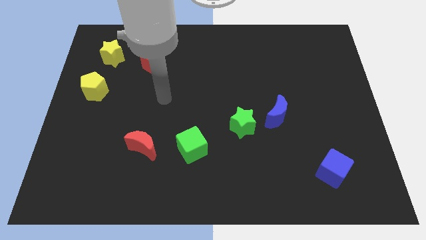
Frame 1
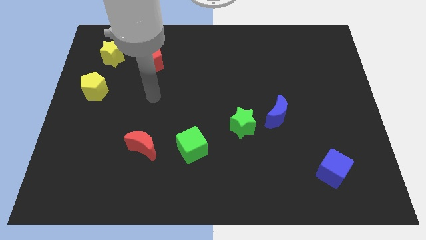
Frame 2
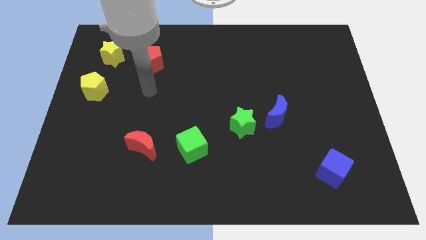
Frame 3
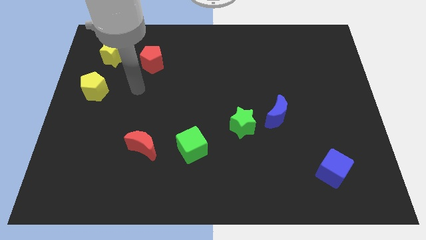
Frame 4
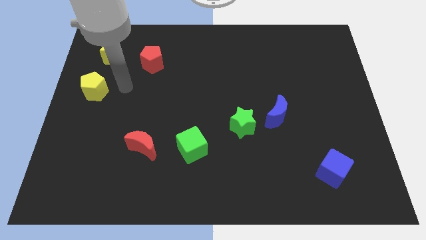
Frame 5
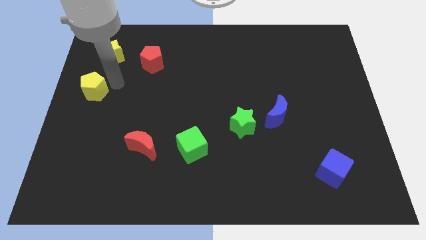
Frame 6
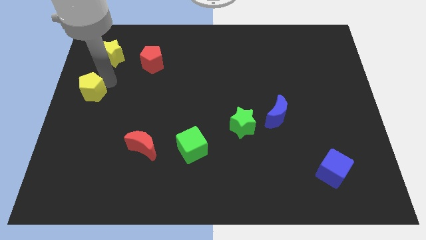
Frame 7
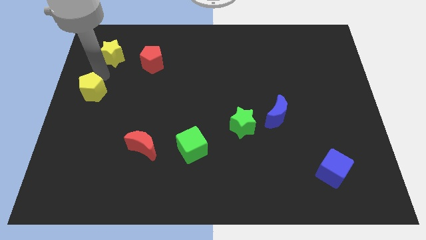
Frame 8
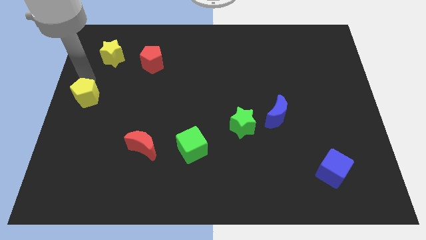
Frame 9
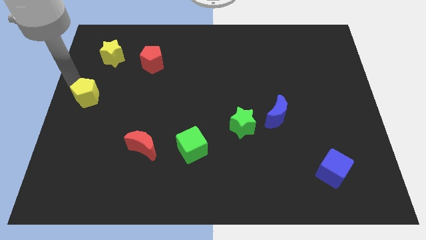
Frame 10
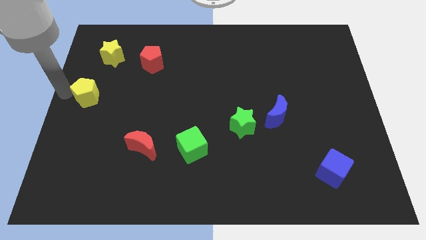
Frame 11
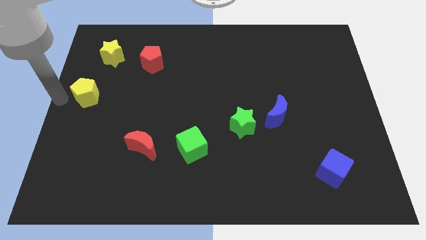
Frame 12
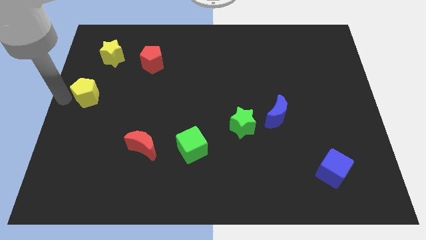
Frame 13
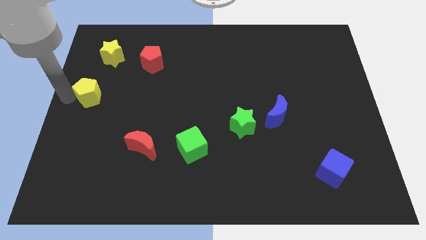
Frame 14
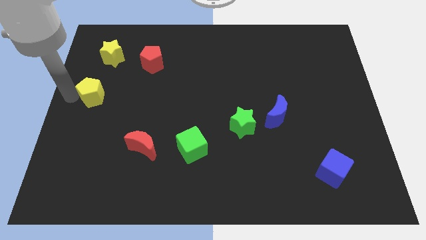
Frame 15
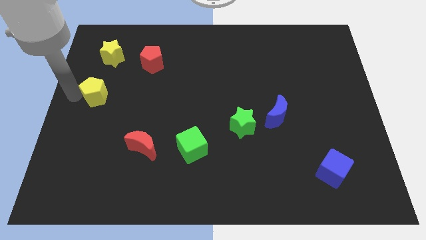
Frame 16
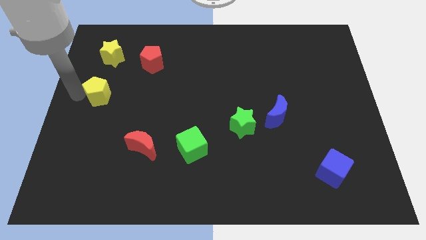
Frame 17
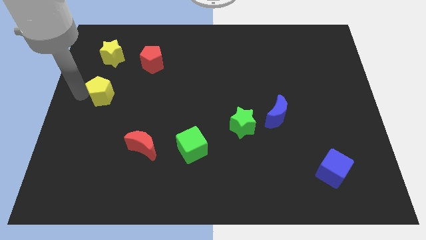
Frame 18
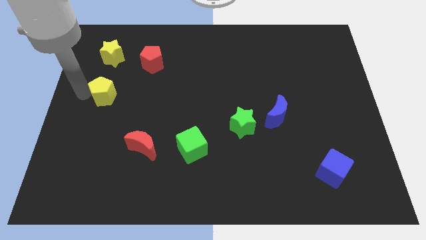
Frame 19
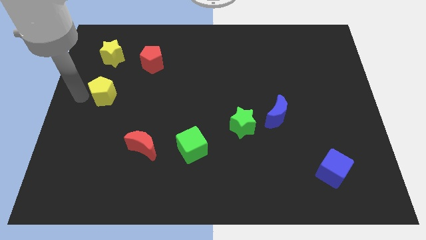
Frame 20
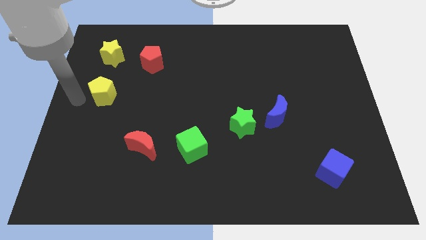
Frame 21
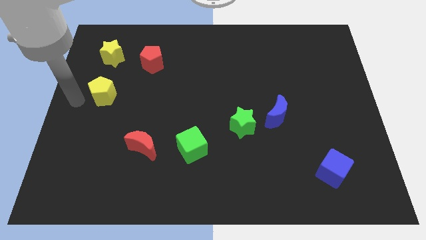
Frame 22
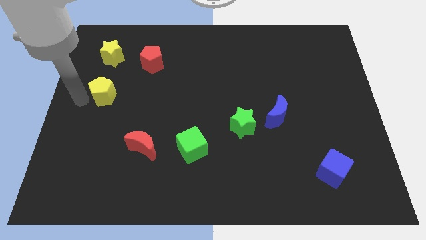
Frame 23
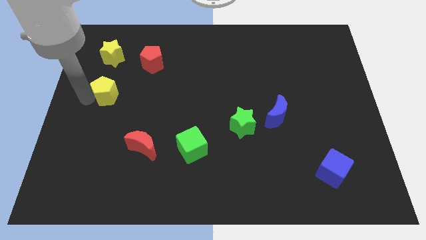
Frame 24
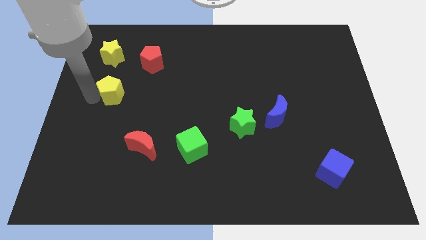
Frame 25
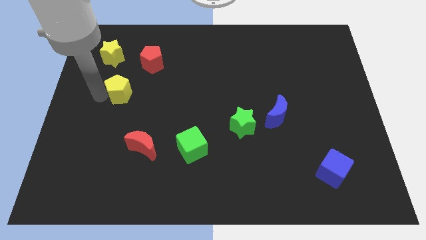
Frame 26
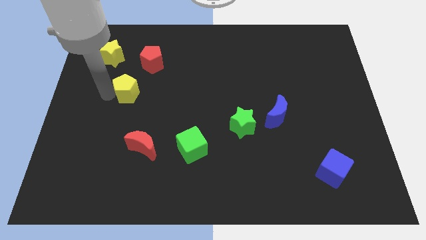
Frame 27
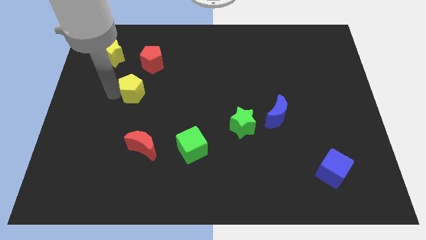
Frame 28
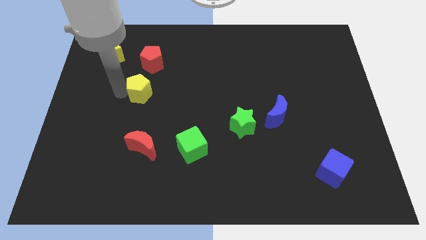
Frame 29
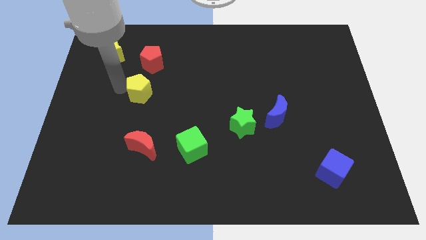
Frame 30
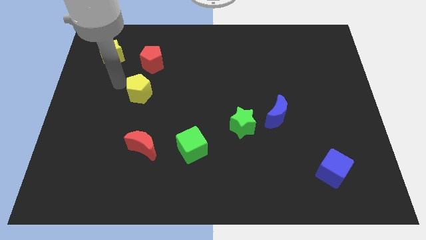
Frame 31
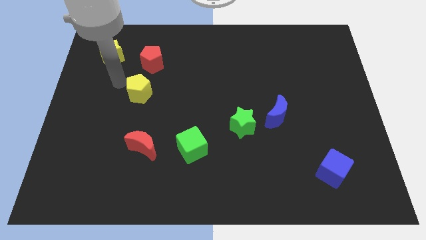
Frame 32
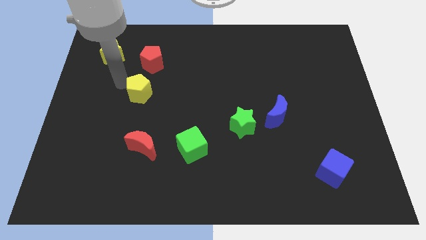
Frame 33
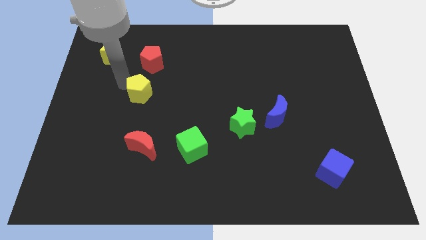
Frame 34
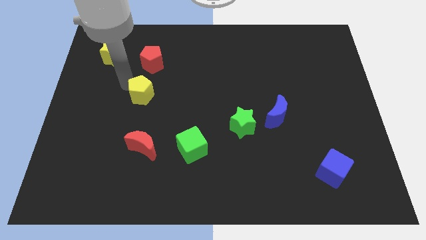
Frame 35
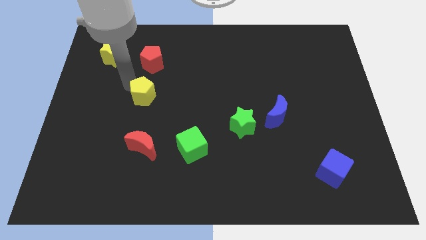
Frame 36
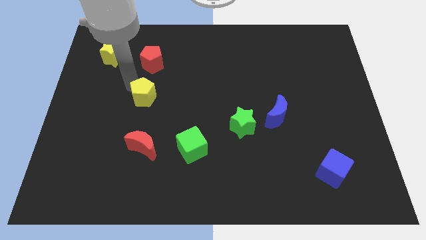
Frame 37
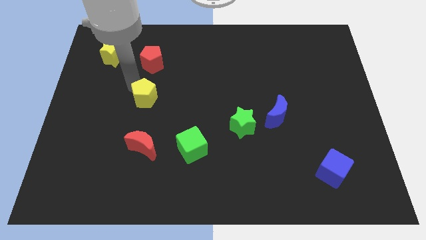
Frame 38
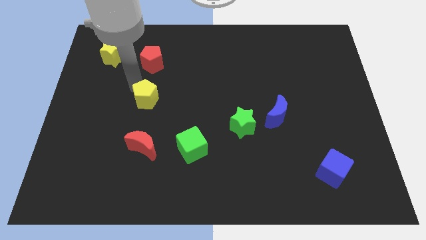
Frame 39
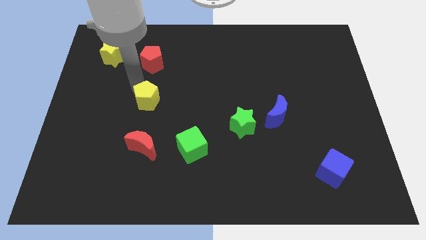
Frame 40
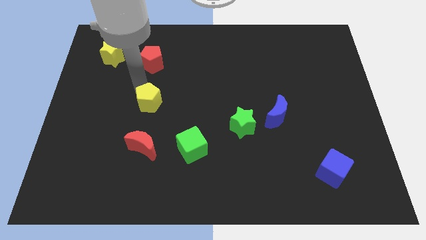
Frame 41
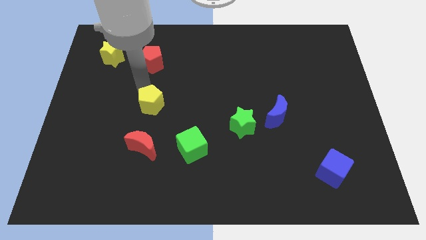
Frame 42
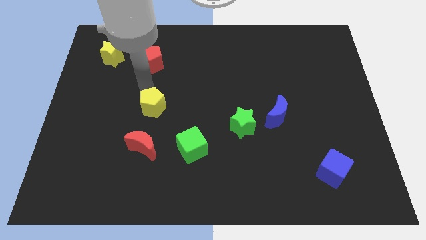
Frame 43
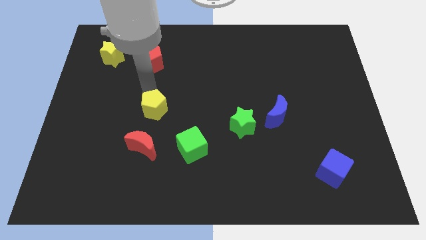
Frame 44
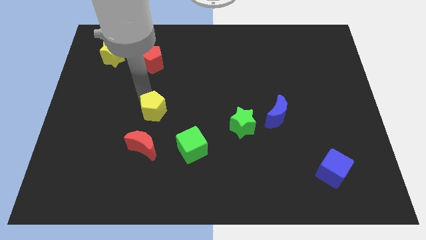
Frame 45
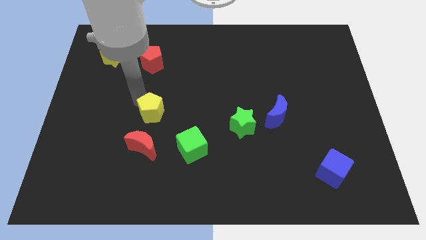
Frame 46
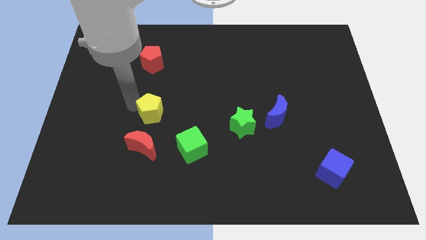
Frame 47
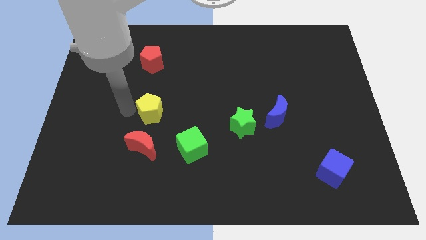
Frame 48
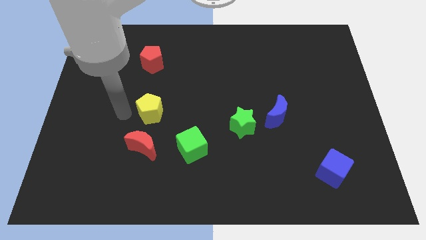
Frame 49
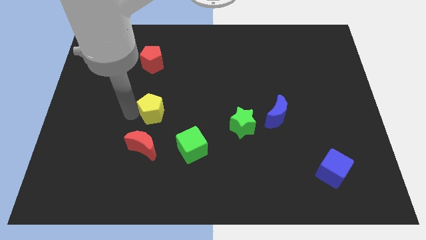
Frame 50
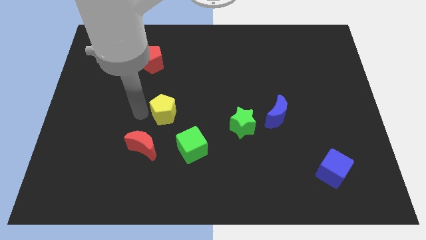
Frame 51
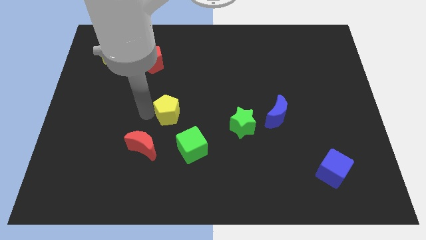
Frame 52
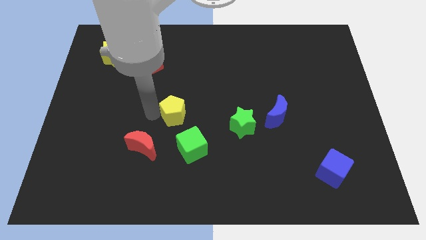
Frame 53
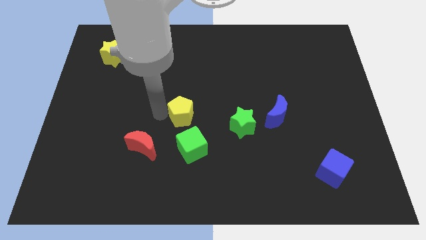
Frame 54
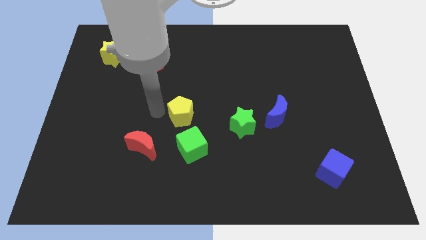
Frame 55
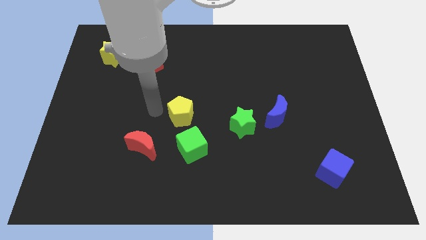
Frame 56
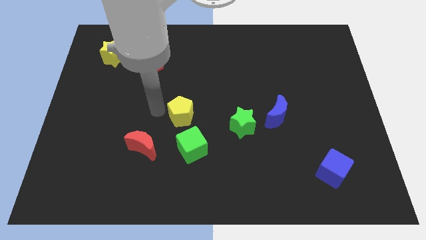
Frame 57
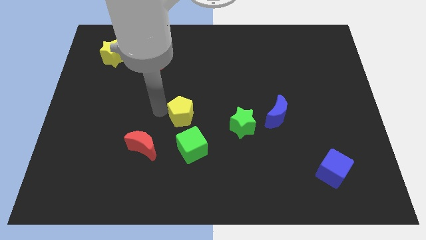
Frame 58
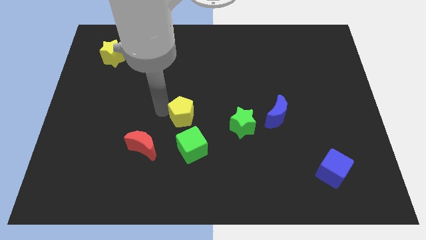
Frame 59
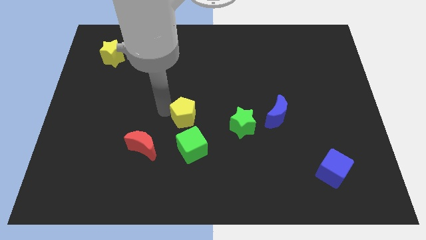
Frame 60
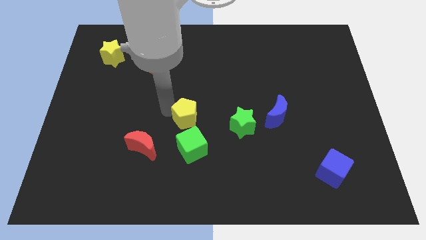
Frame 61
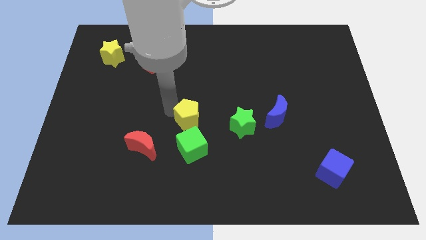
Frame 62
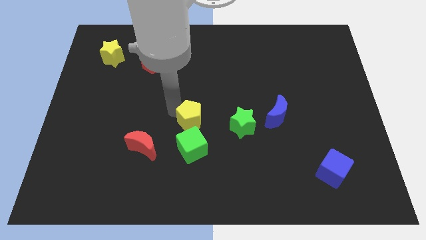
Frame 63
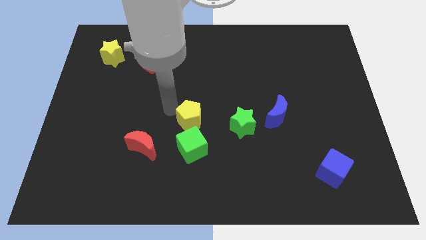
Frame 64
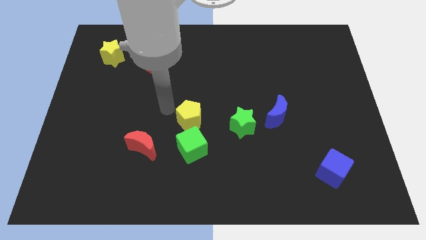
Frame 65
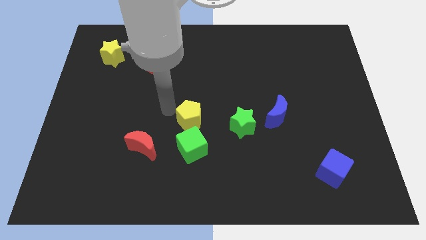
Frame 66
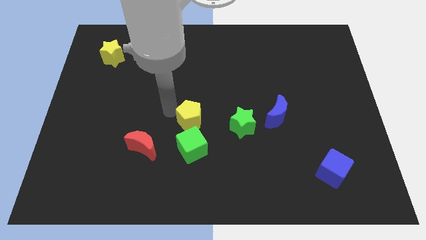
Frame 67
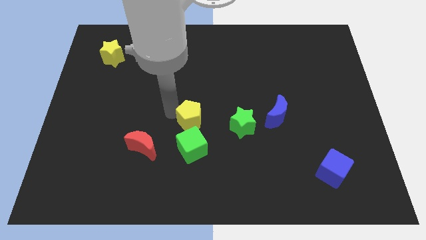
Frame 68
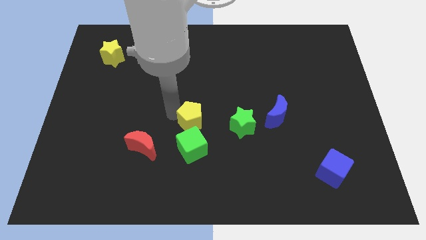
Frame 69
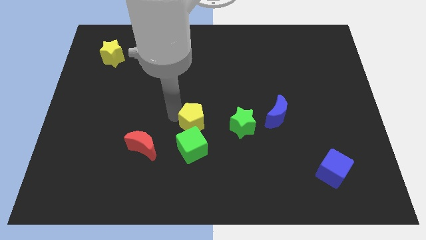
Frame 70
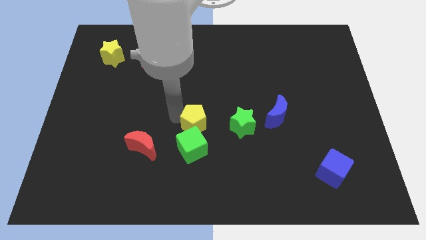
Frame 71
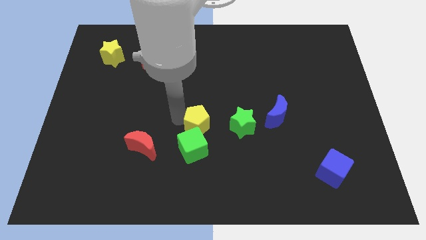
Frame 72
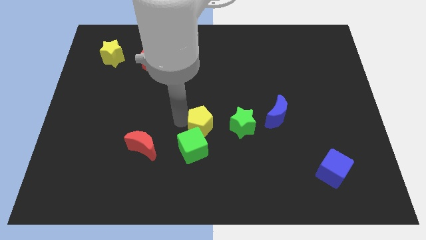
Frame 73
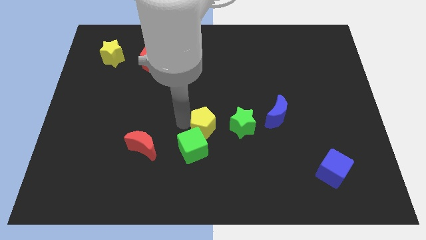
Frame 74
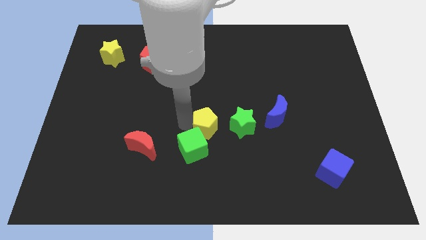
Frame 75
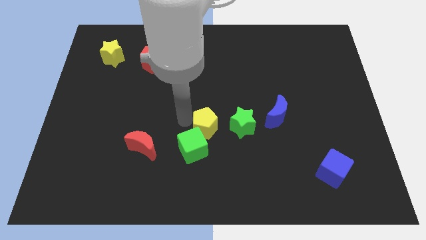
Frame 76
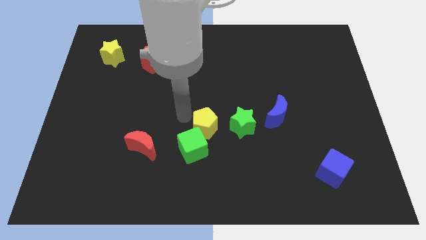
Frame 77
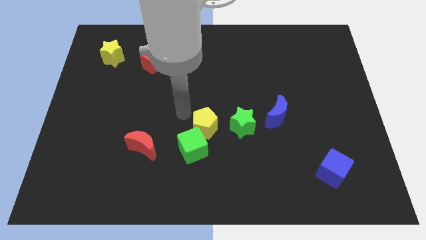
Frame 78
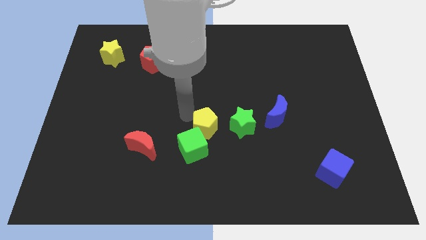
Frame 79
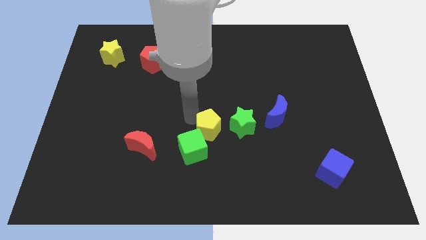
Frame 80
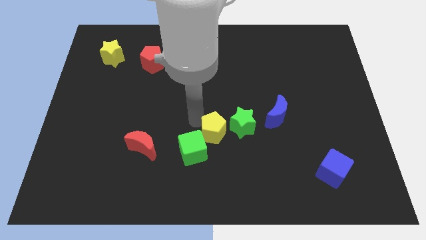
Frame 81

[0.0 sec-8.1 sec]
move the yellow pentagon right of the green cube
